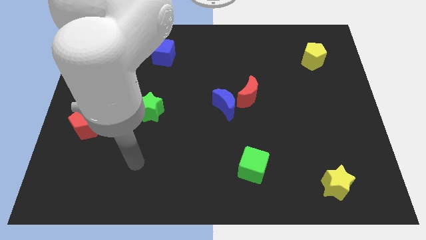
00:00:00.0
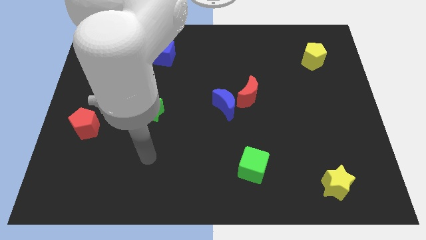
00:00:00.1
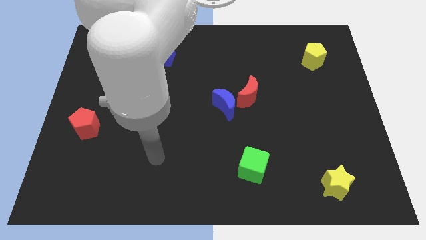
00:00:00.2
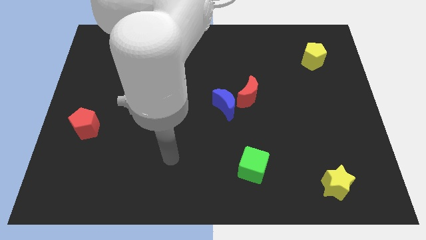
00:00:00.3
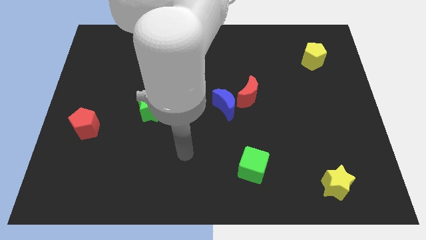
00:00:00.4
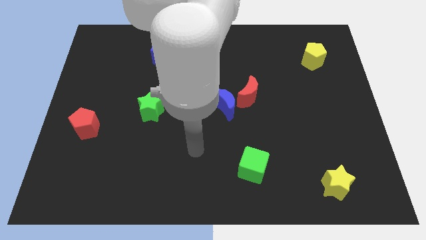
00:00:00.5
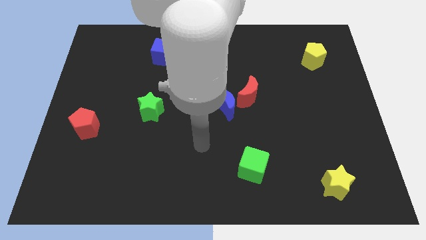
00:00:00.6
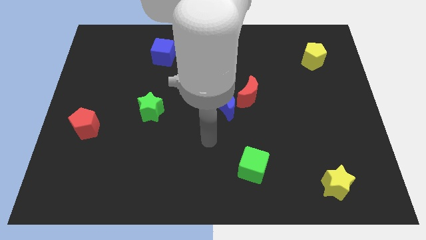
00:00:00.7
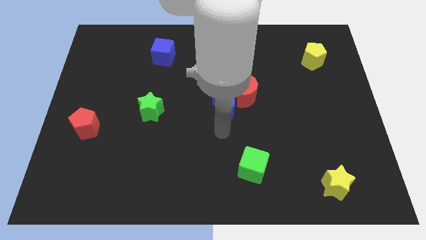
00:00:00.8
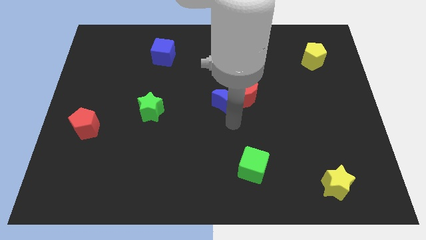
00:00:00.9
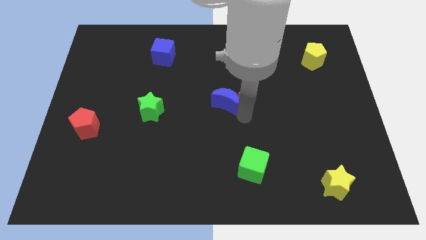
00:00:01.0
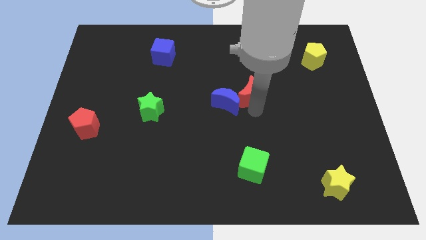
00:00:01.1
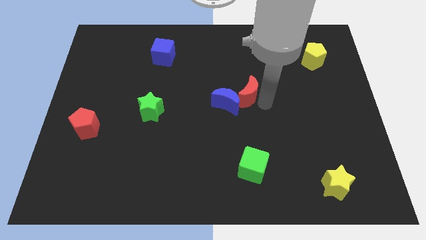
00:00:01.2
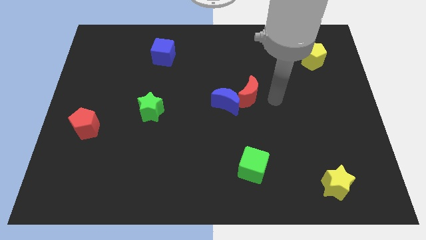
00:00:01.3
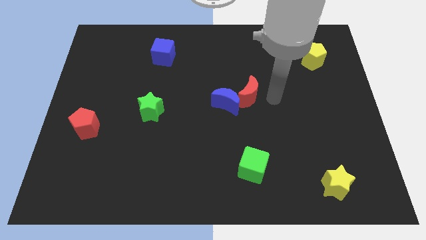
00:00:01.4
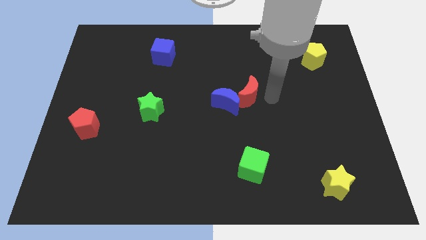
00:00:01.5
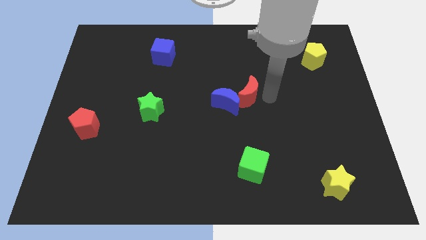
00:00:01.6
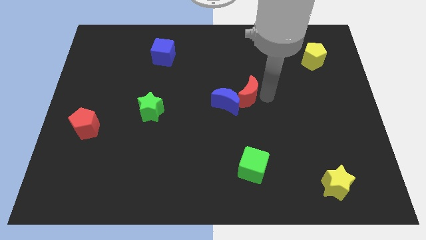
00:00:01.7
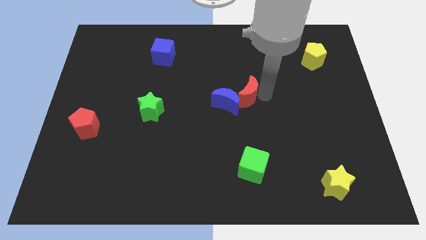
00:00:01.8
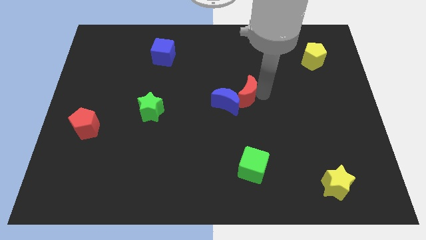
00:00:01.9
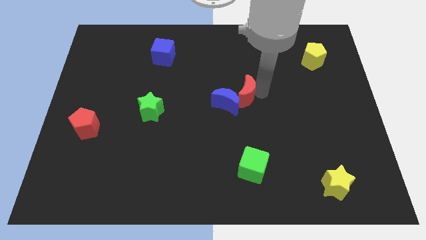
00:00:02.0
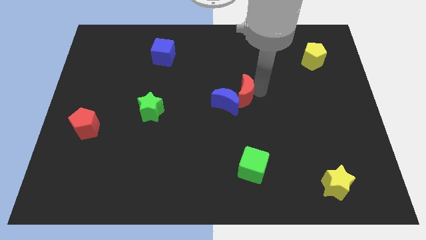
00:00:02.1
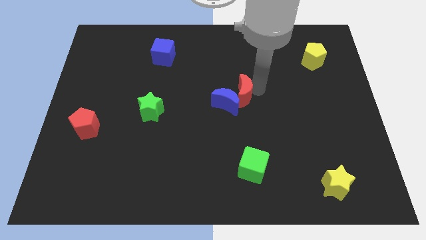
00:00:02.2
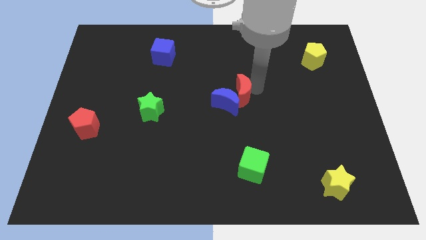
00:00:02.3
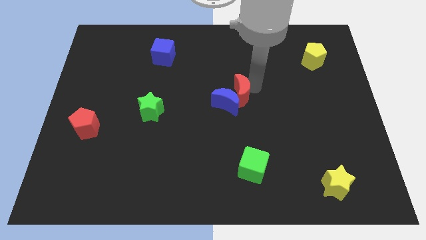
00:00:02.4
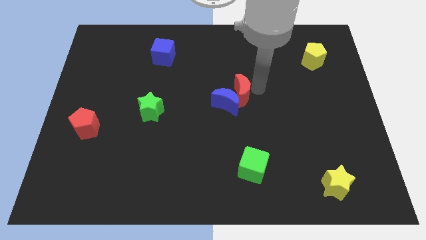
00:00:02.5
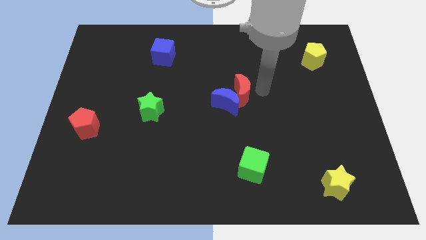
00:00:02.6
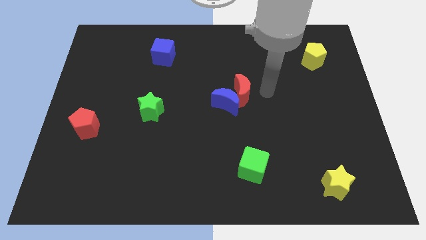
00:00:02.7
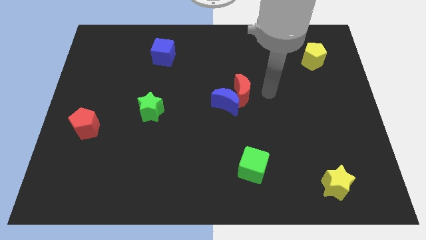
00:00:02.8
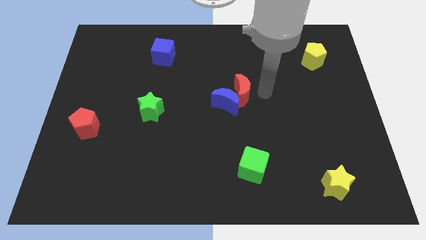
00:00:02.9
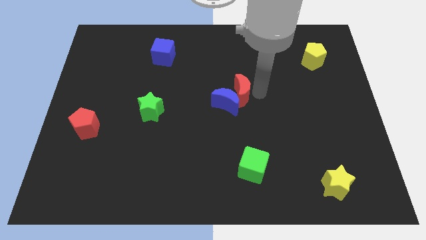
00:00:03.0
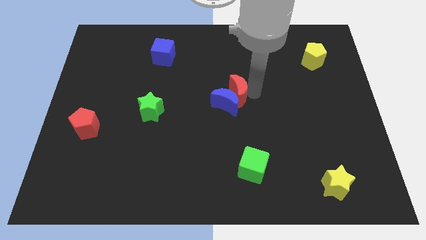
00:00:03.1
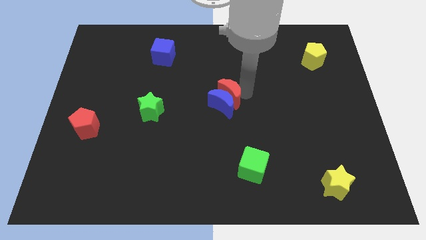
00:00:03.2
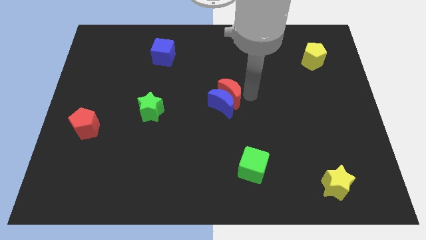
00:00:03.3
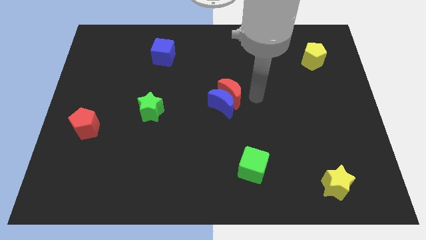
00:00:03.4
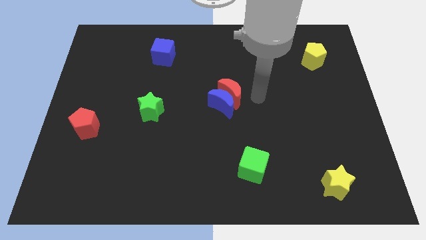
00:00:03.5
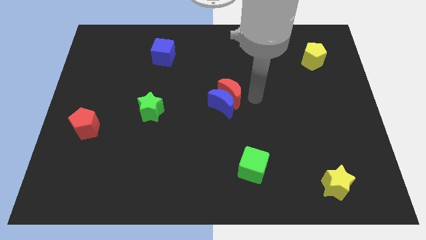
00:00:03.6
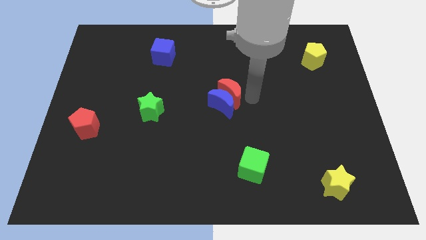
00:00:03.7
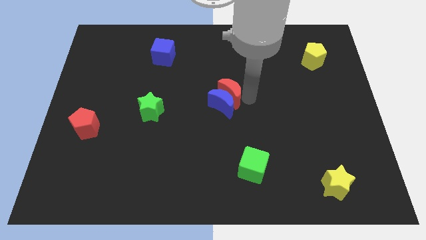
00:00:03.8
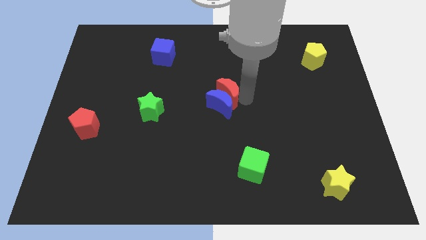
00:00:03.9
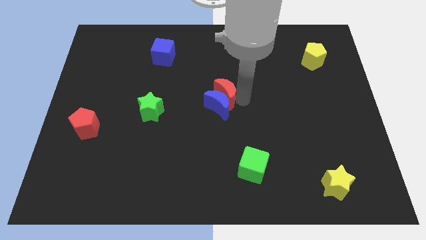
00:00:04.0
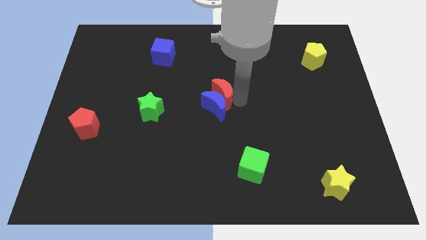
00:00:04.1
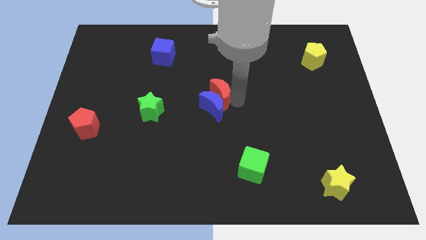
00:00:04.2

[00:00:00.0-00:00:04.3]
slightly slide the red moon left

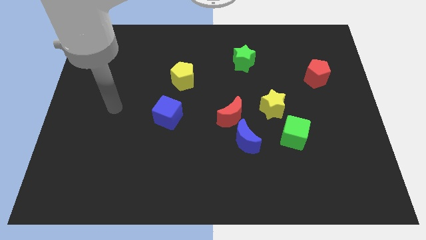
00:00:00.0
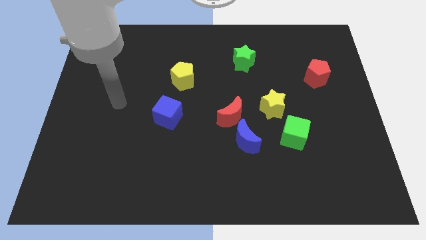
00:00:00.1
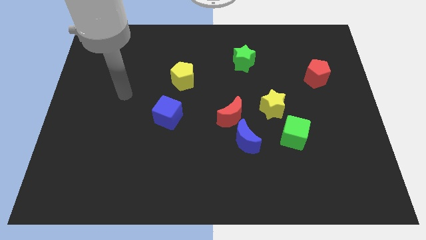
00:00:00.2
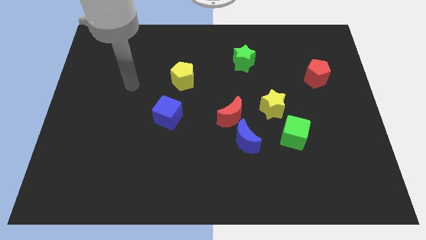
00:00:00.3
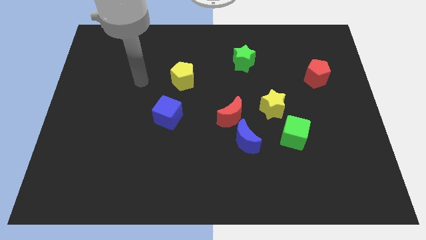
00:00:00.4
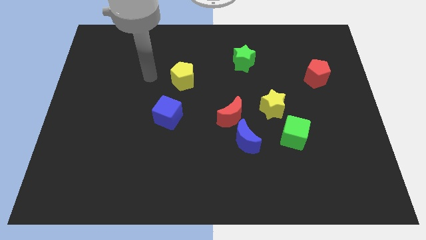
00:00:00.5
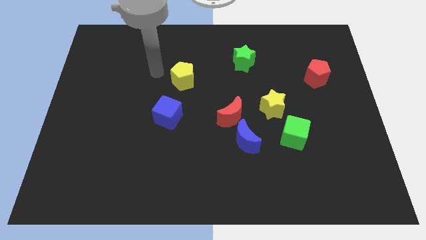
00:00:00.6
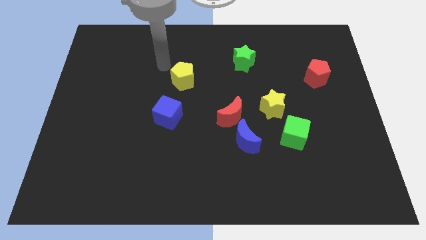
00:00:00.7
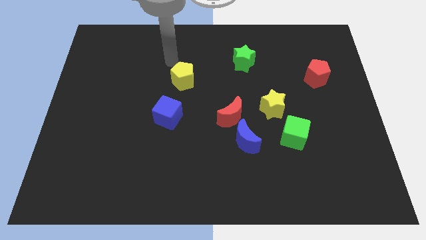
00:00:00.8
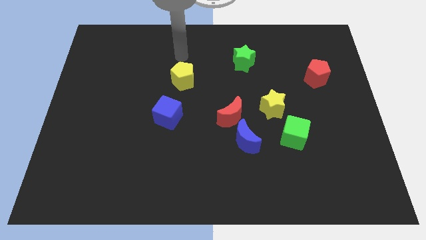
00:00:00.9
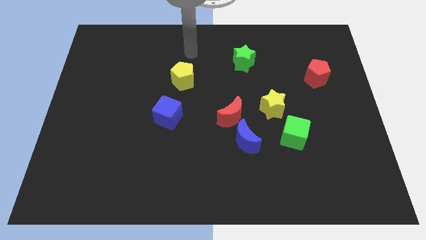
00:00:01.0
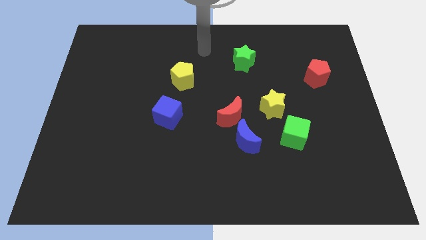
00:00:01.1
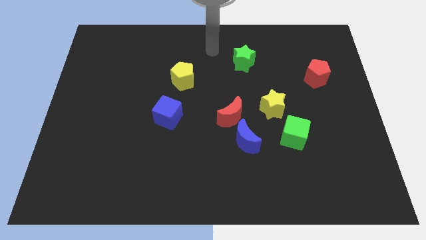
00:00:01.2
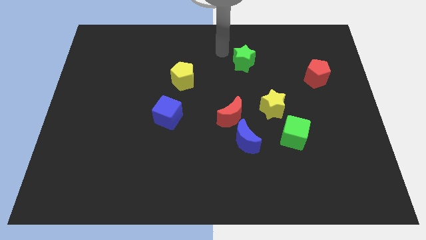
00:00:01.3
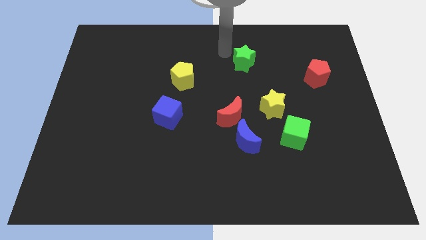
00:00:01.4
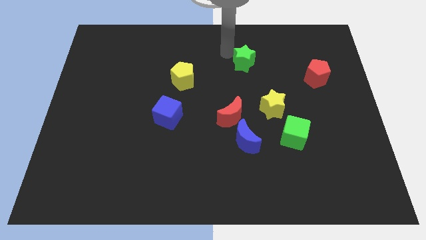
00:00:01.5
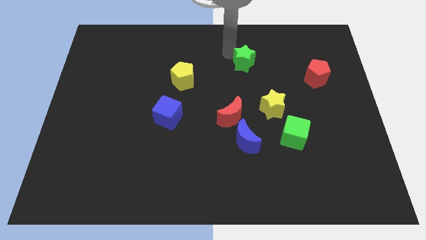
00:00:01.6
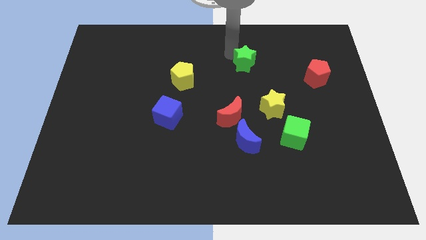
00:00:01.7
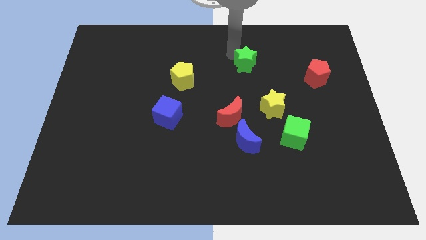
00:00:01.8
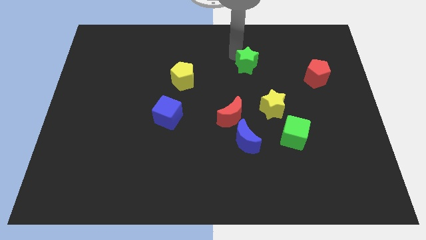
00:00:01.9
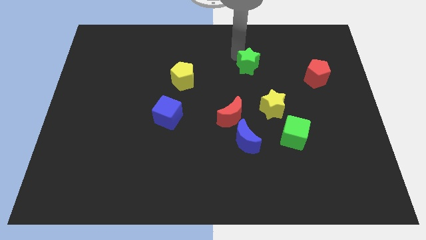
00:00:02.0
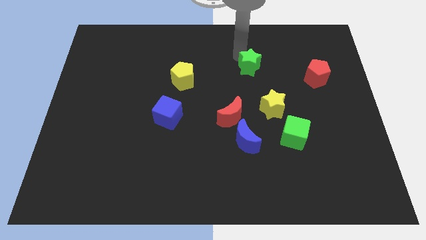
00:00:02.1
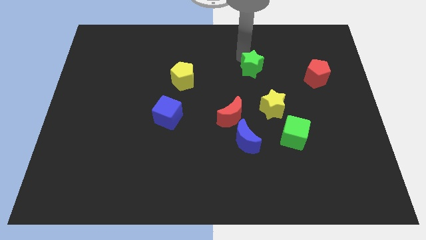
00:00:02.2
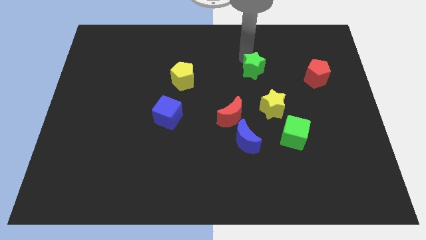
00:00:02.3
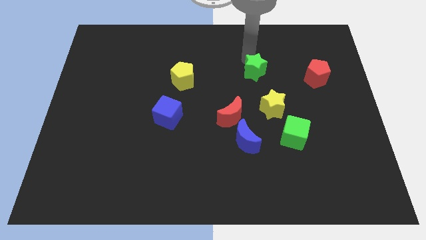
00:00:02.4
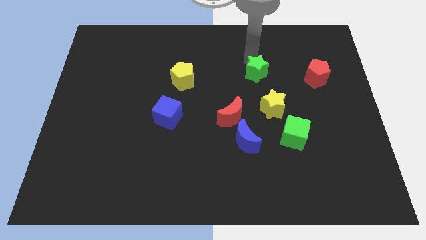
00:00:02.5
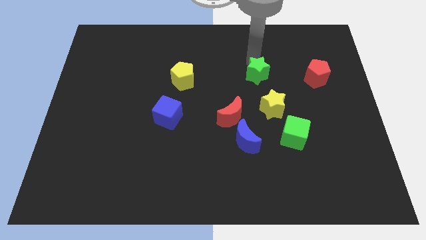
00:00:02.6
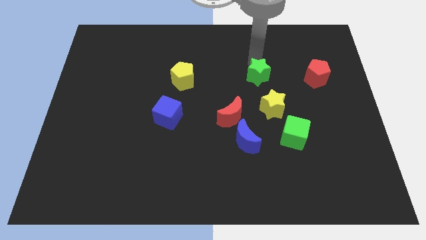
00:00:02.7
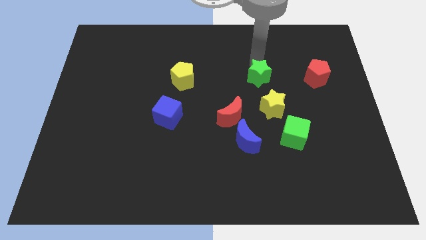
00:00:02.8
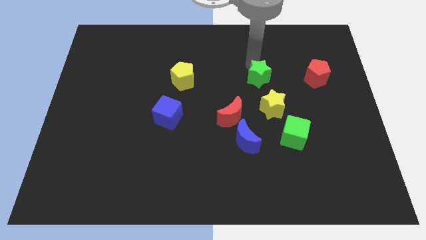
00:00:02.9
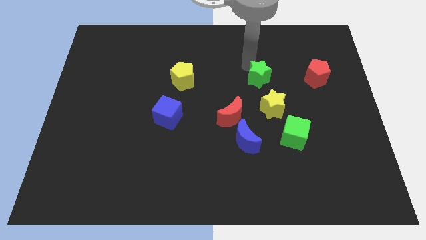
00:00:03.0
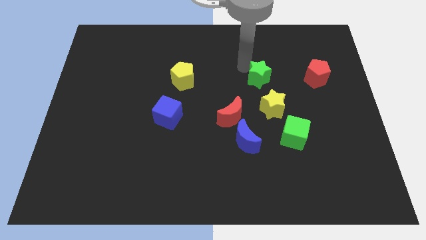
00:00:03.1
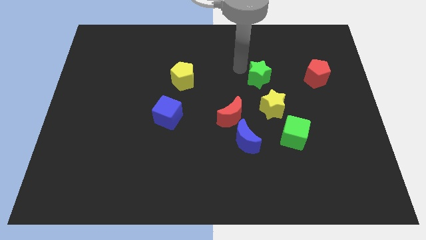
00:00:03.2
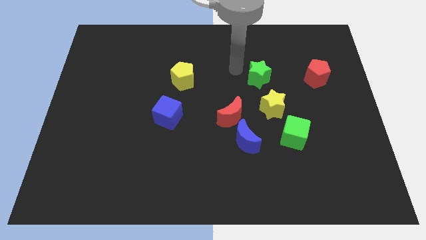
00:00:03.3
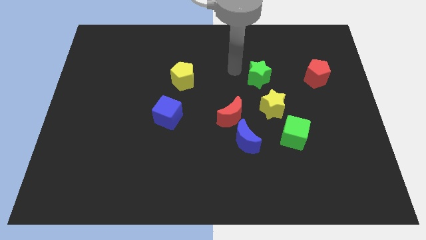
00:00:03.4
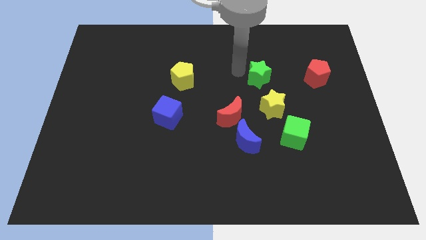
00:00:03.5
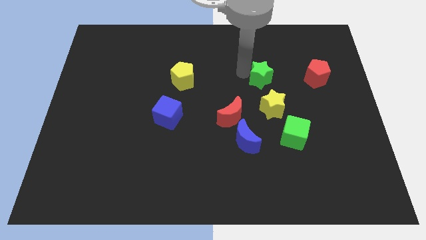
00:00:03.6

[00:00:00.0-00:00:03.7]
slightly slide the green star downwards and then right
